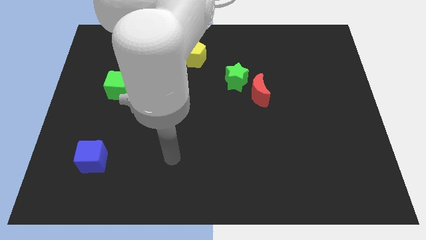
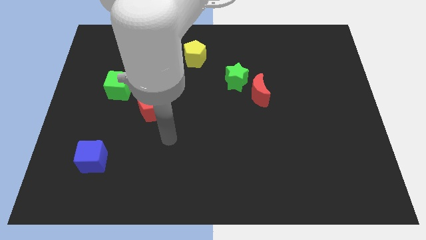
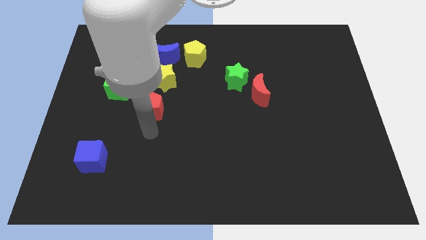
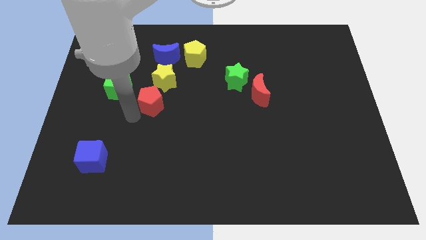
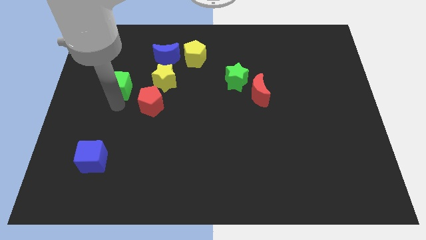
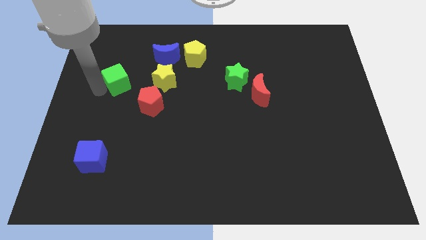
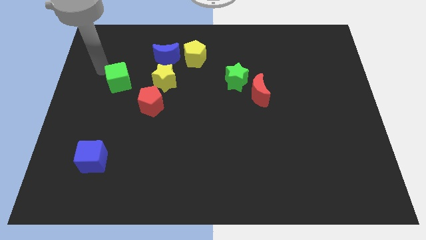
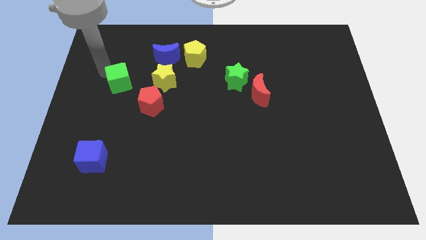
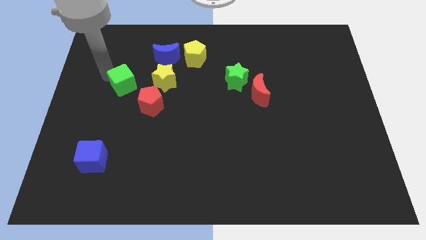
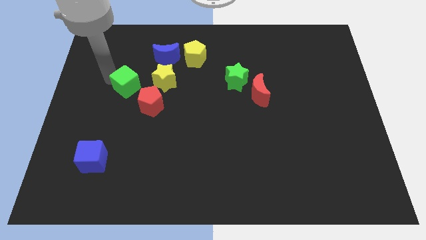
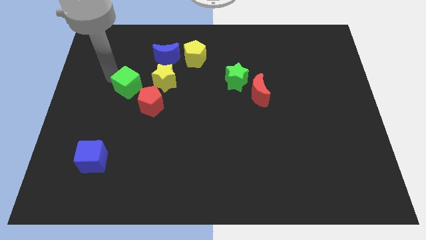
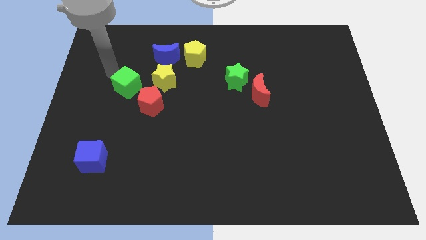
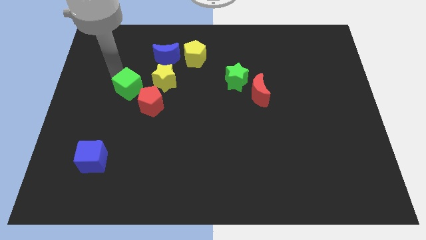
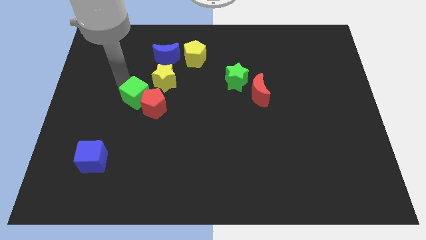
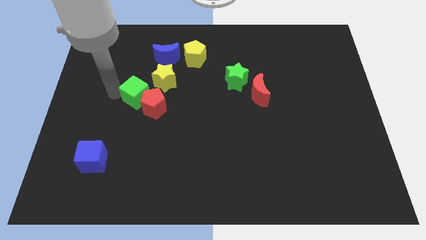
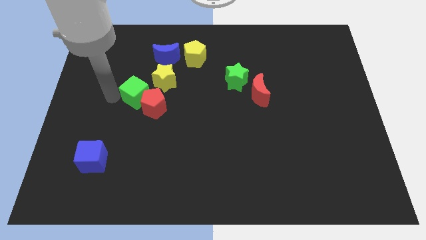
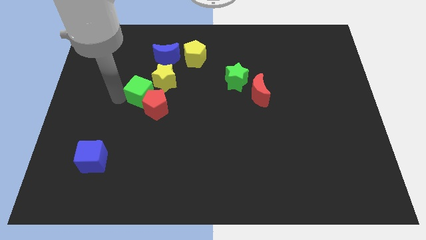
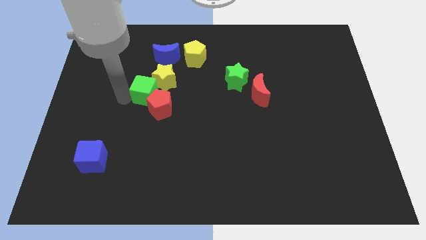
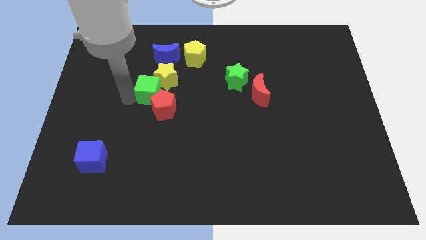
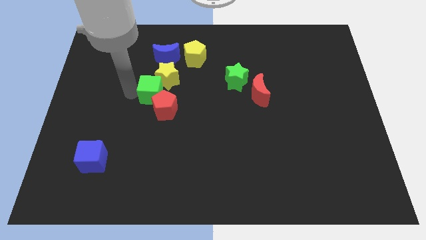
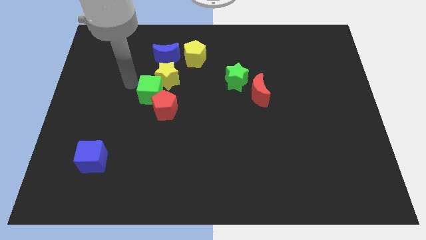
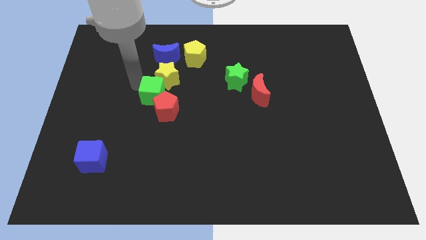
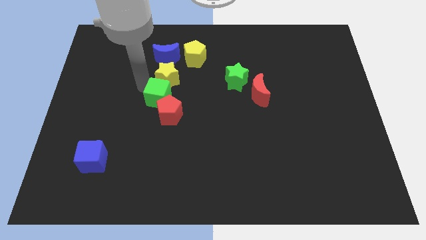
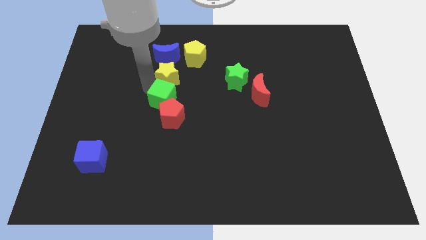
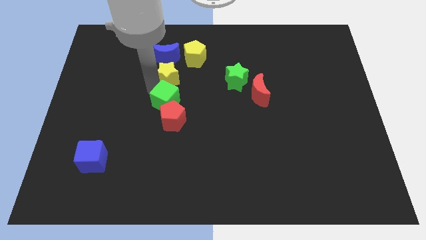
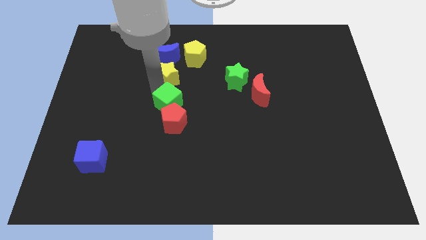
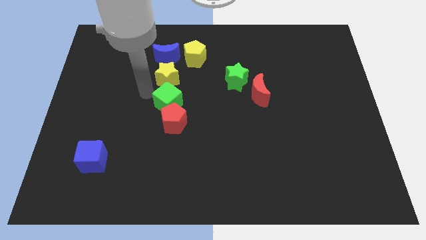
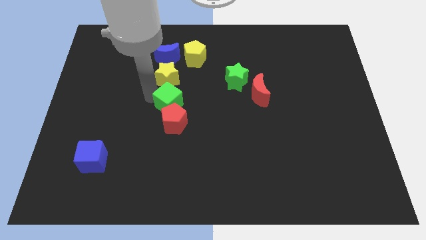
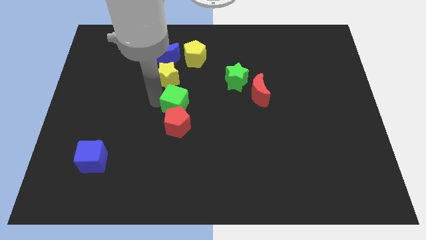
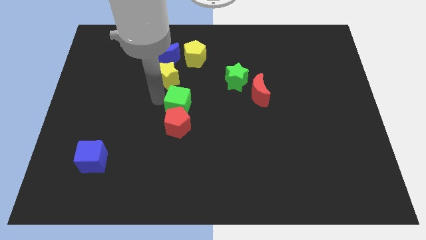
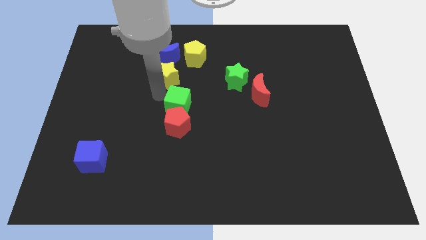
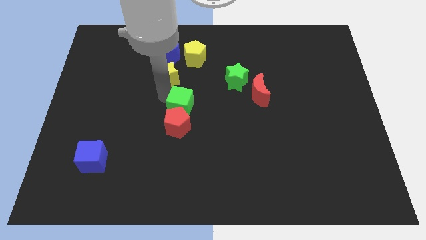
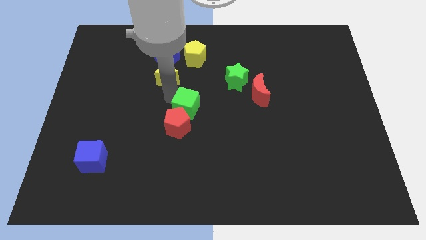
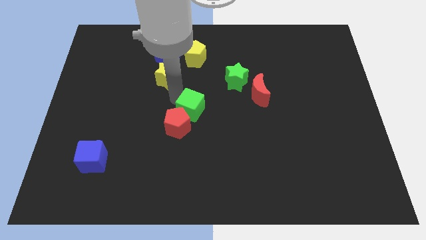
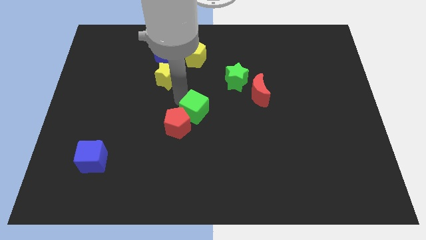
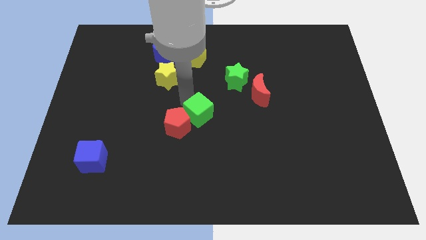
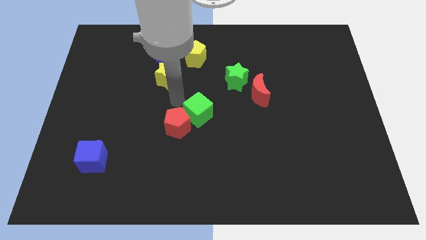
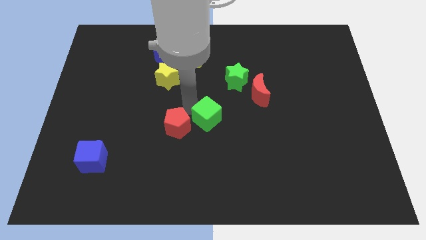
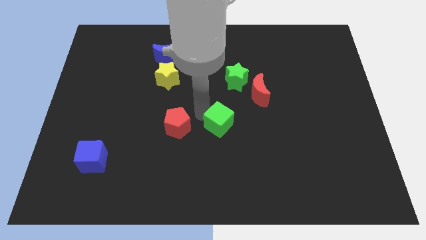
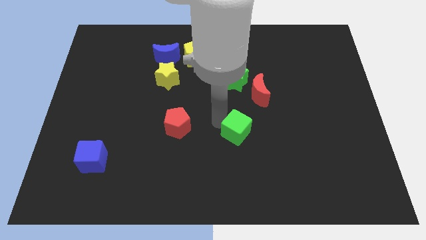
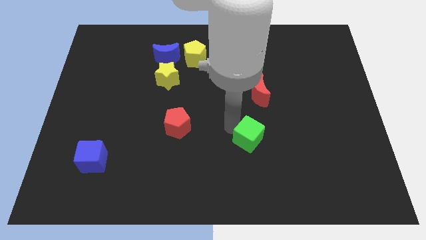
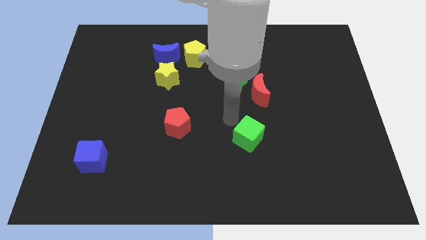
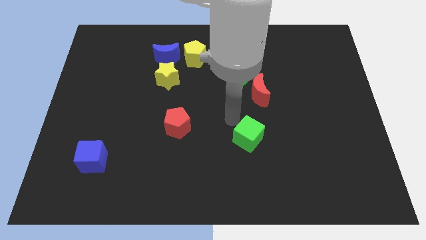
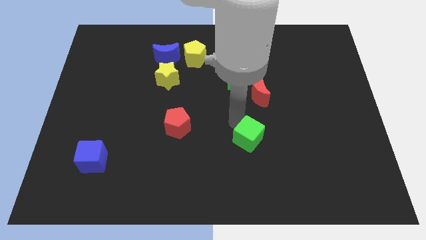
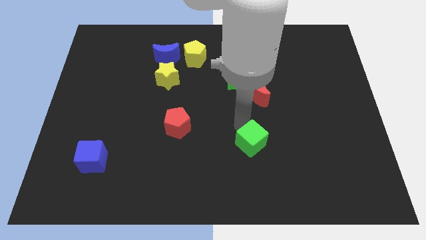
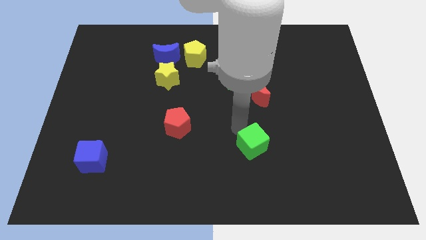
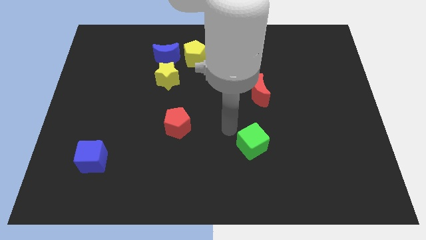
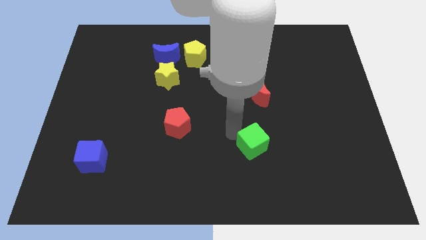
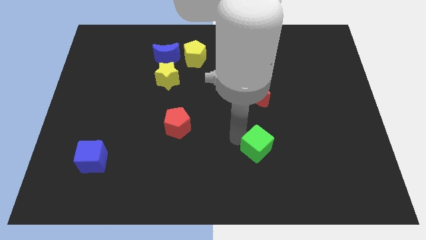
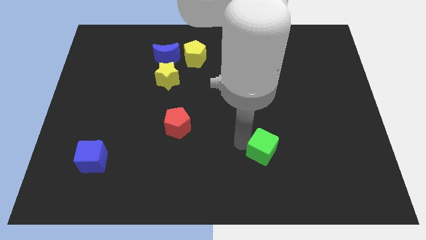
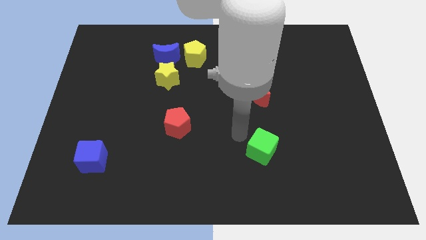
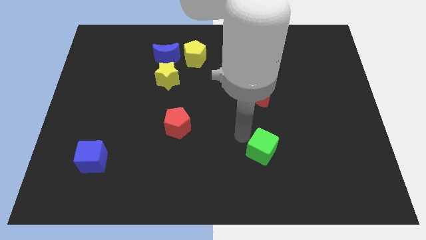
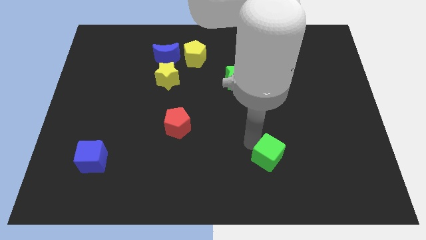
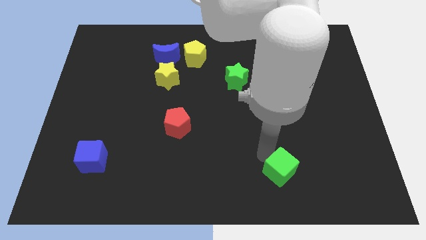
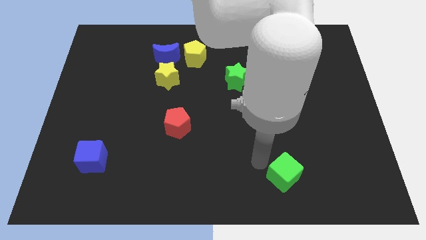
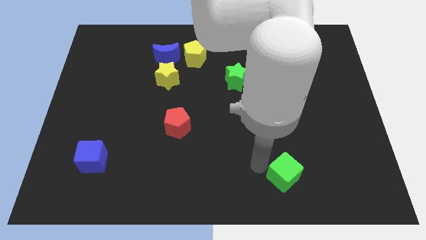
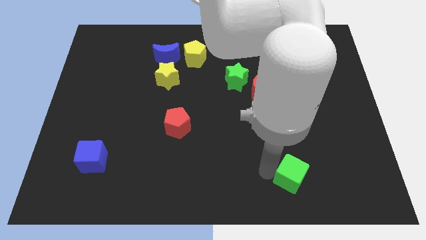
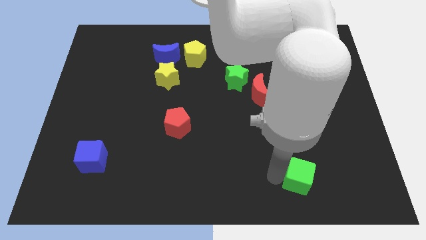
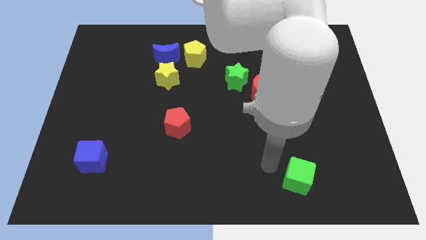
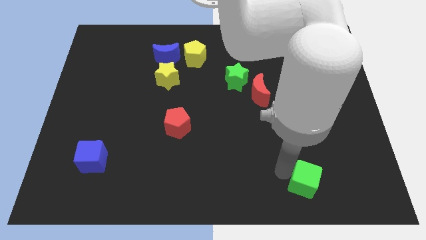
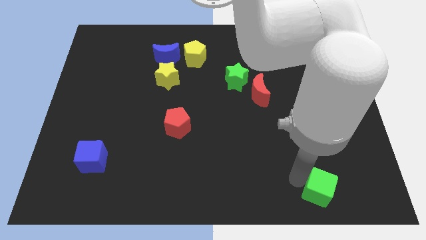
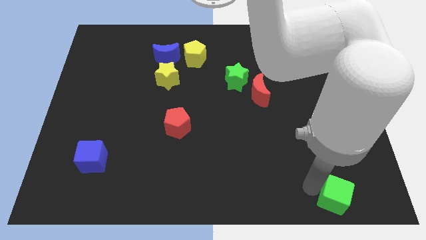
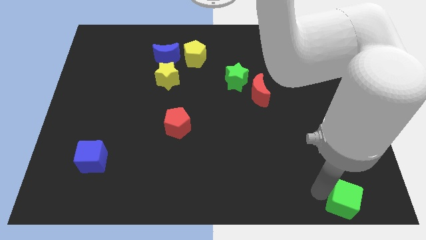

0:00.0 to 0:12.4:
slide the green cube to the bottom right

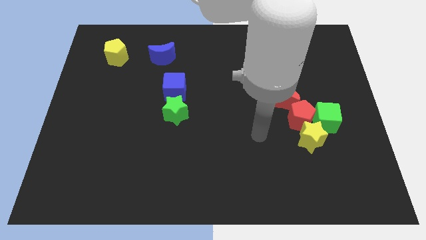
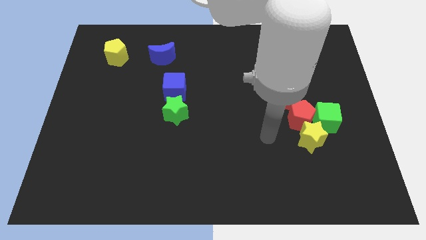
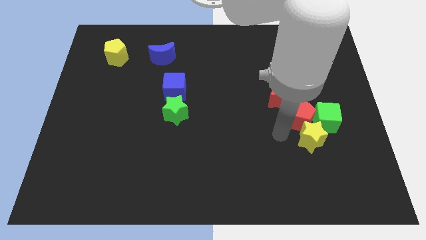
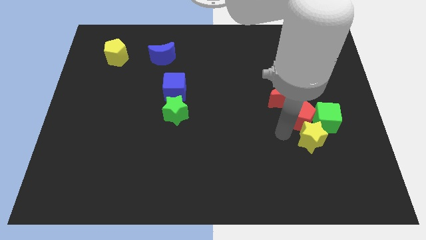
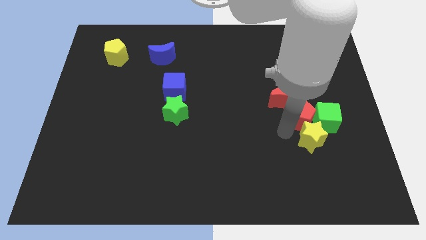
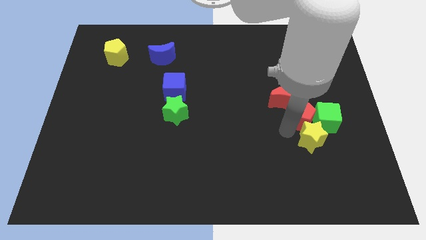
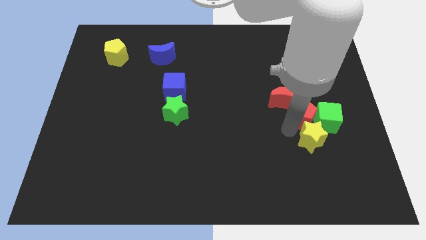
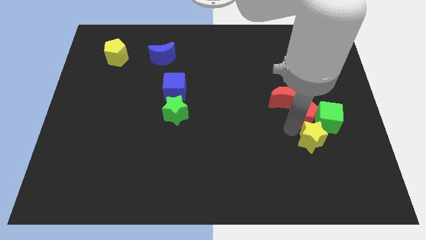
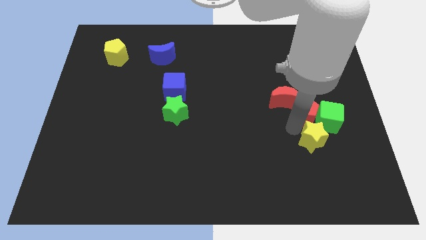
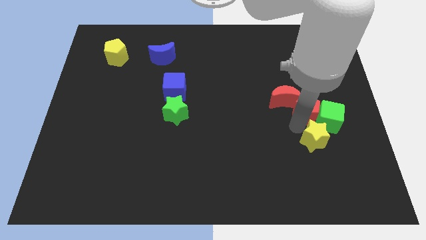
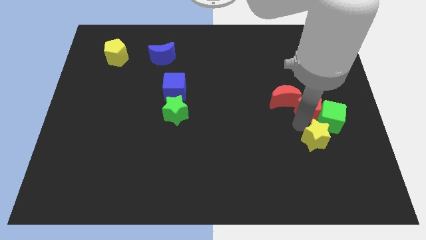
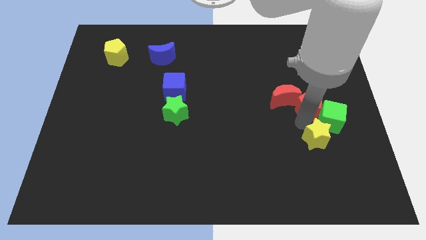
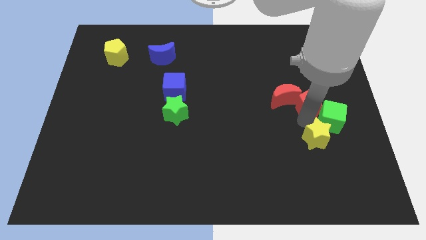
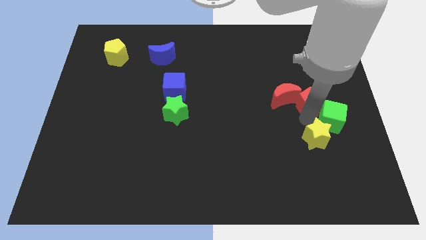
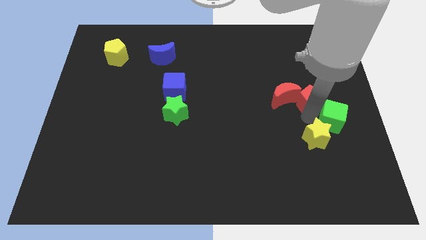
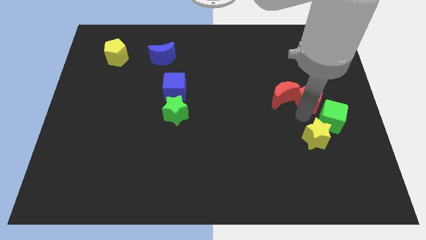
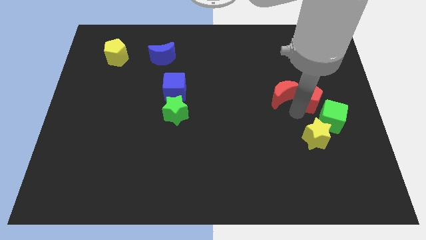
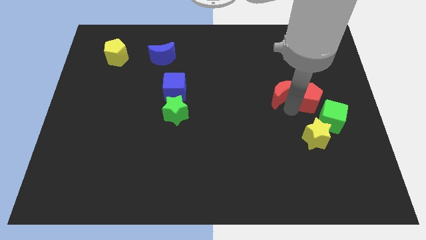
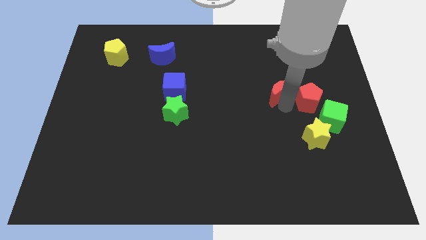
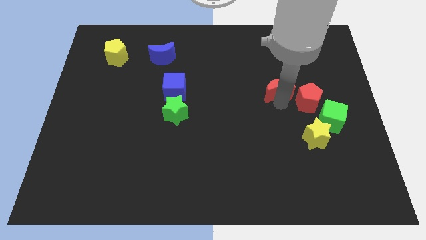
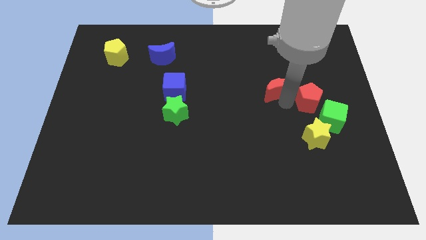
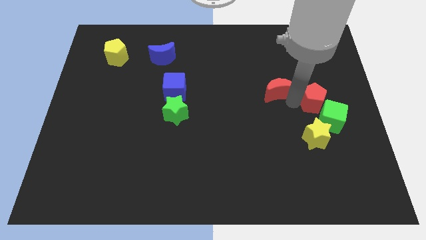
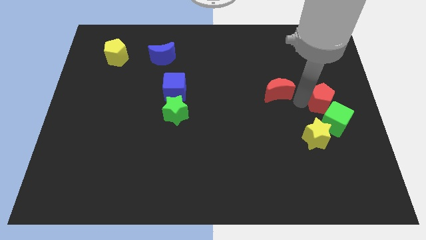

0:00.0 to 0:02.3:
move the red pentagon to the right side of the board
